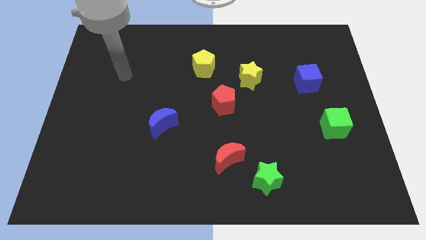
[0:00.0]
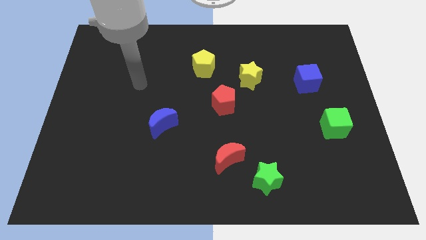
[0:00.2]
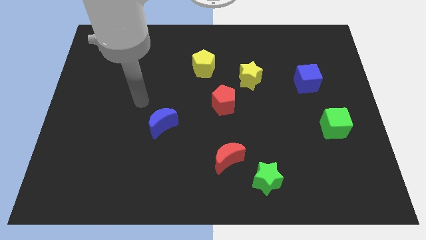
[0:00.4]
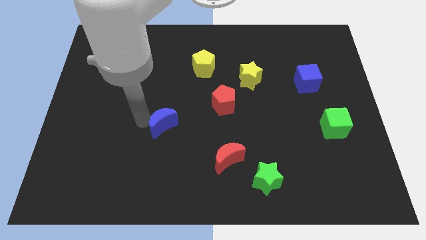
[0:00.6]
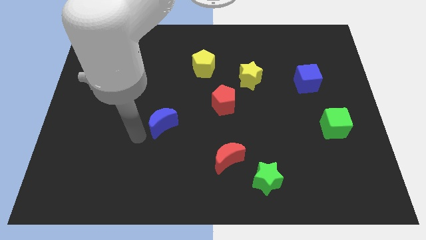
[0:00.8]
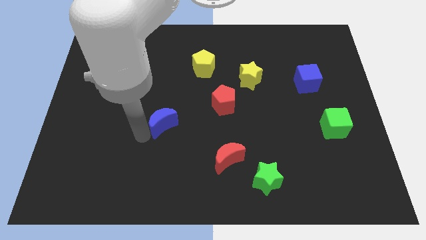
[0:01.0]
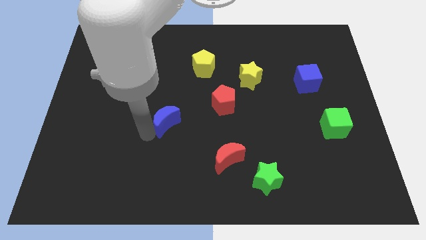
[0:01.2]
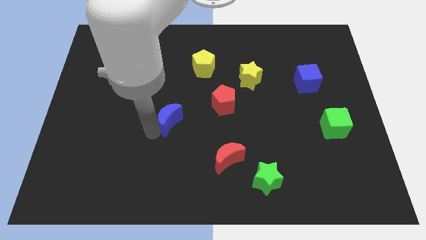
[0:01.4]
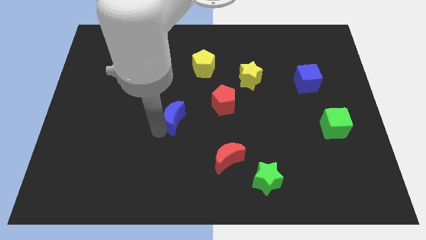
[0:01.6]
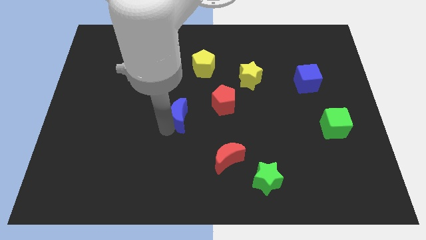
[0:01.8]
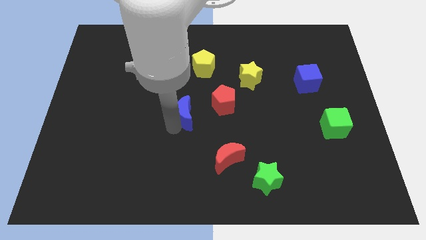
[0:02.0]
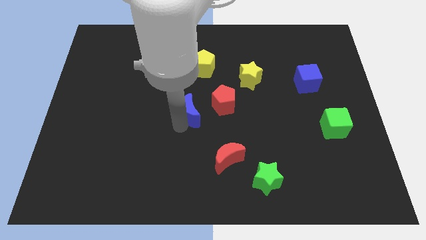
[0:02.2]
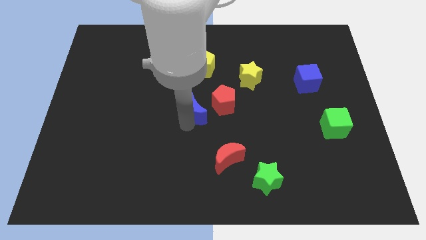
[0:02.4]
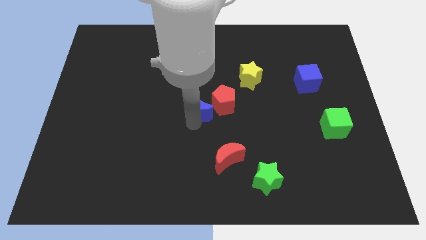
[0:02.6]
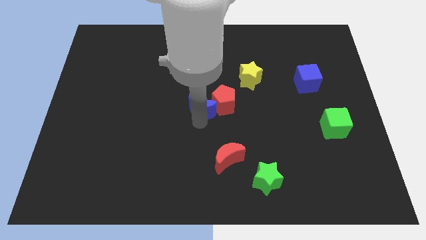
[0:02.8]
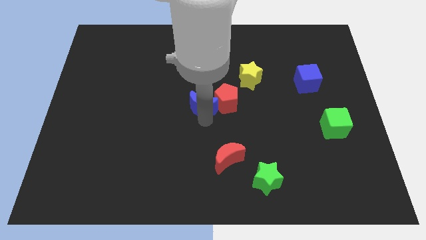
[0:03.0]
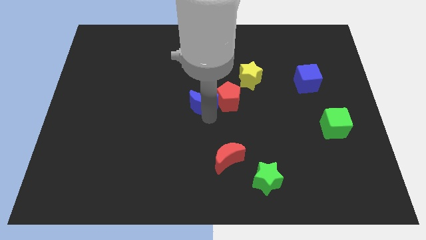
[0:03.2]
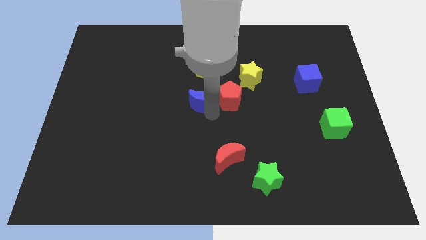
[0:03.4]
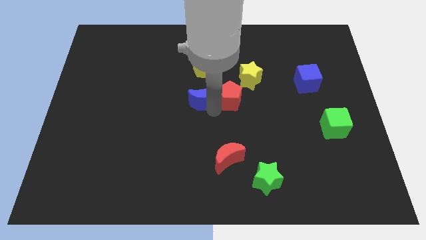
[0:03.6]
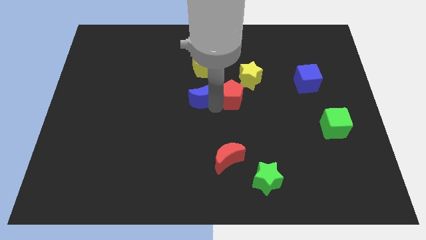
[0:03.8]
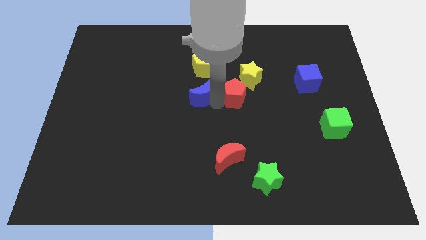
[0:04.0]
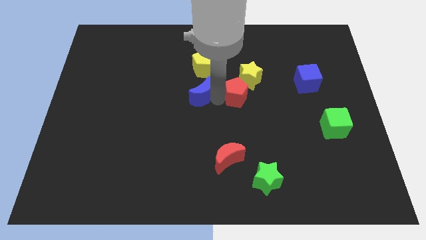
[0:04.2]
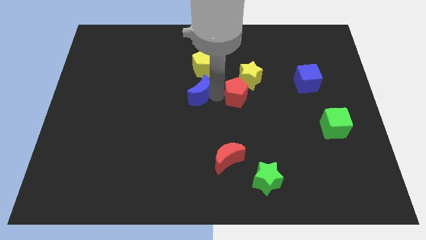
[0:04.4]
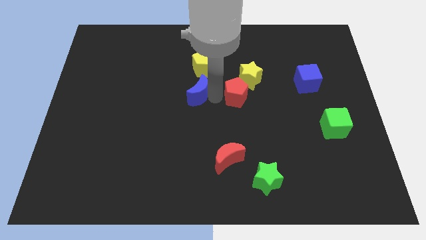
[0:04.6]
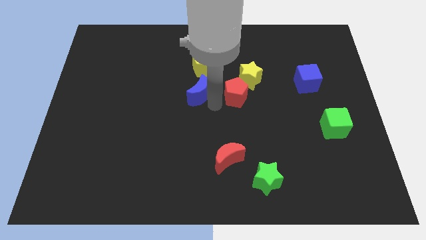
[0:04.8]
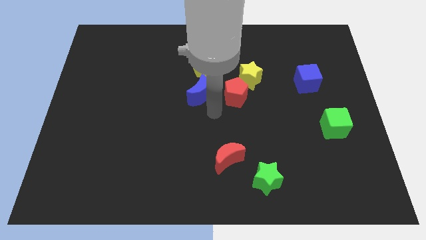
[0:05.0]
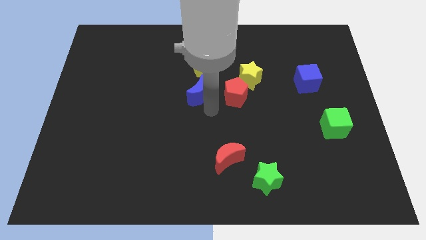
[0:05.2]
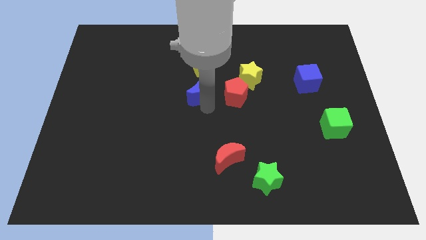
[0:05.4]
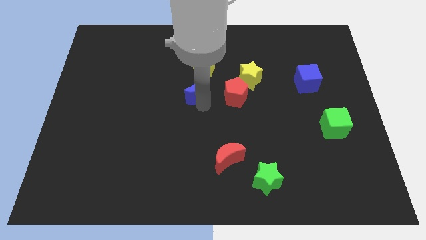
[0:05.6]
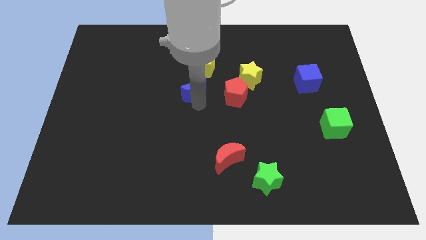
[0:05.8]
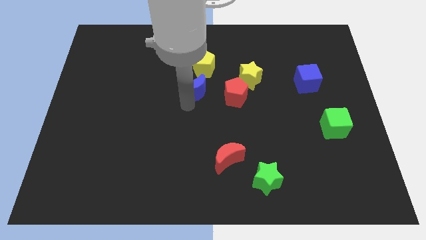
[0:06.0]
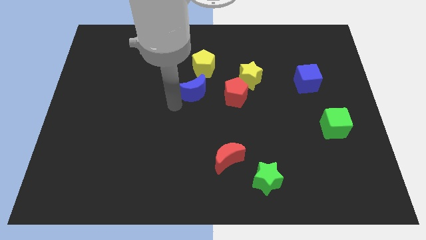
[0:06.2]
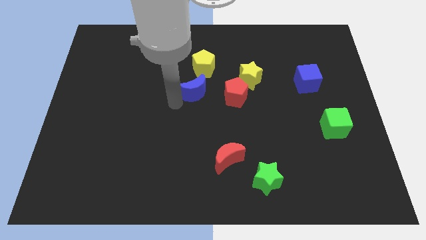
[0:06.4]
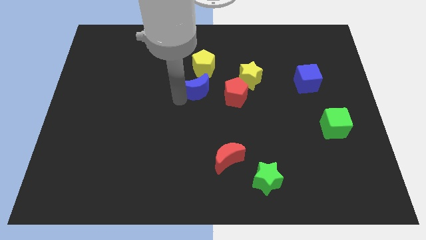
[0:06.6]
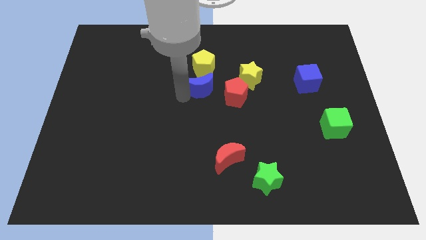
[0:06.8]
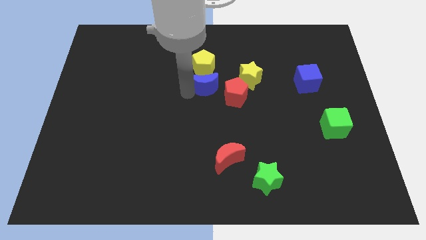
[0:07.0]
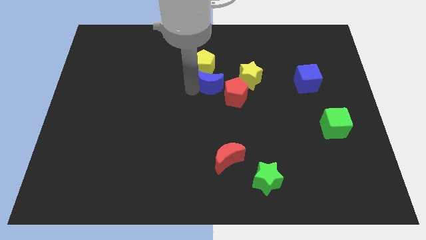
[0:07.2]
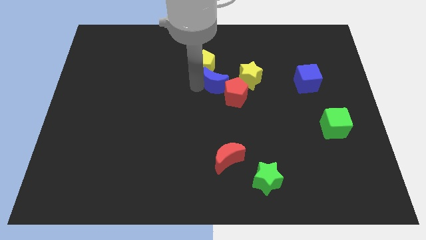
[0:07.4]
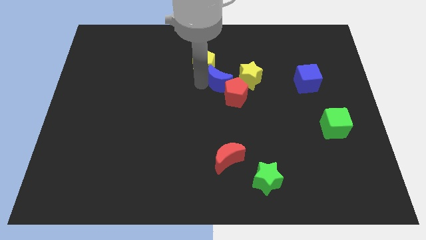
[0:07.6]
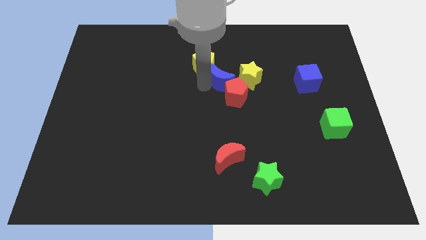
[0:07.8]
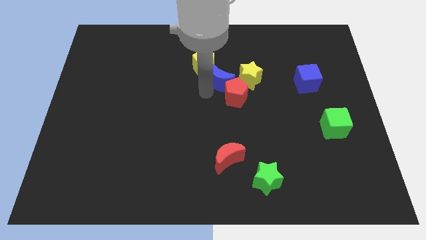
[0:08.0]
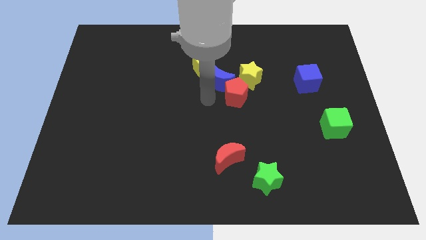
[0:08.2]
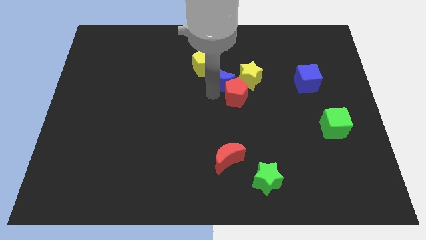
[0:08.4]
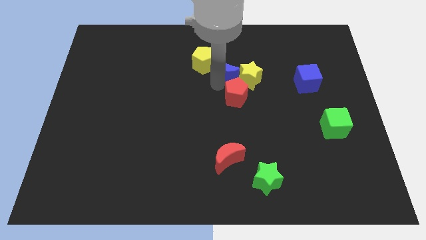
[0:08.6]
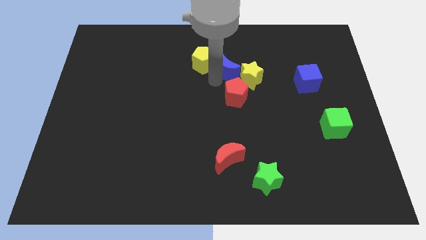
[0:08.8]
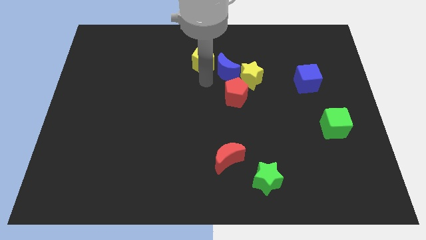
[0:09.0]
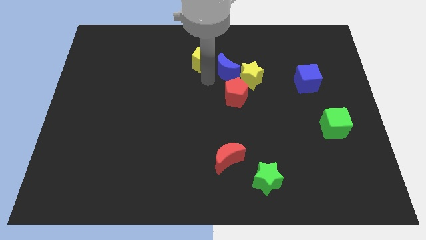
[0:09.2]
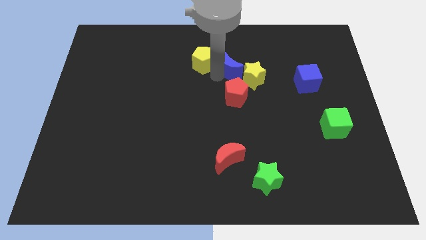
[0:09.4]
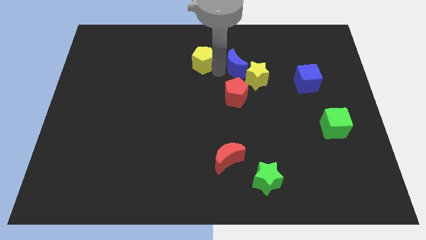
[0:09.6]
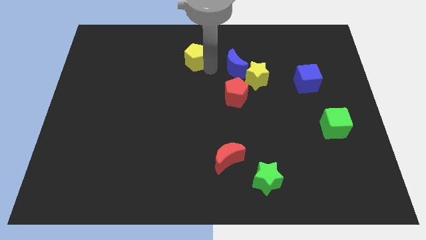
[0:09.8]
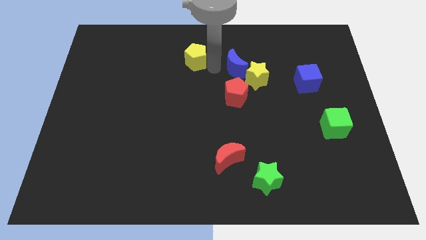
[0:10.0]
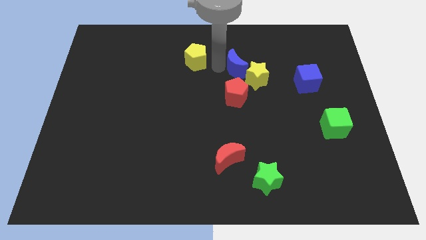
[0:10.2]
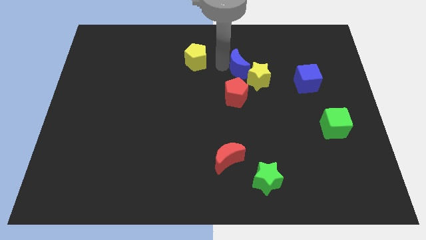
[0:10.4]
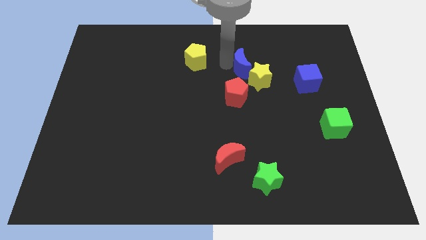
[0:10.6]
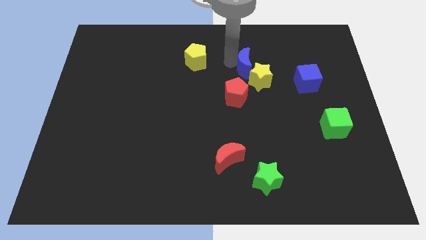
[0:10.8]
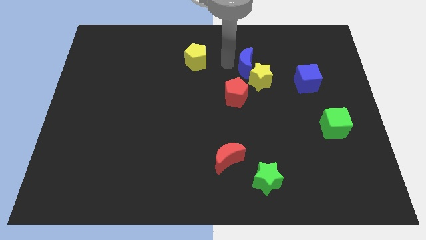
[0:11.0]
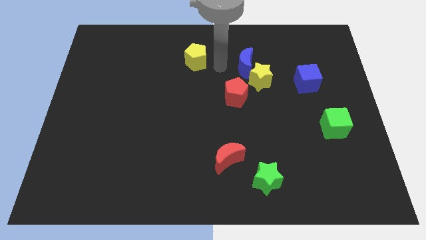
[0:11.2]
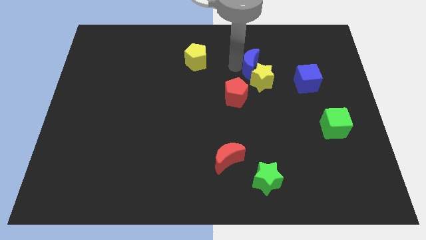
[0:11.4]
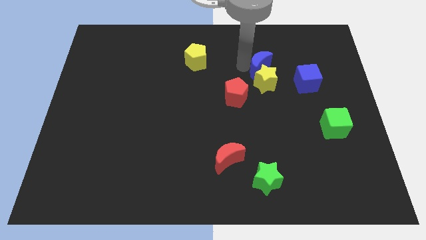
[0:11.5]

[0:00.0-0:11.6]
put the blue moon to the top right of the yellow star
